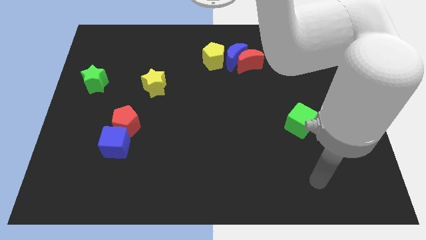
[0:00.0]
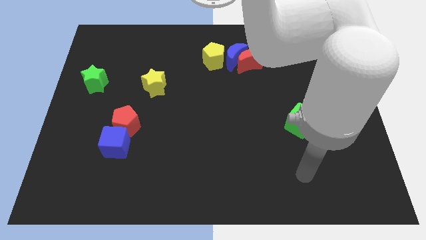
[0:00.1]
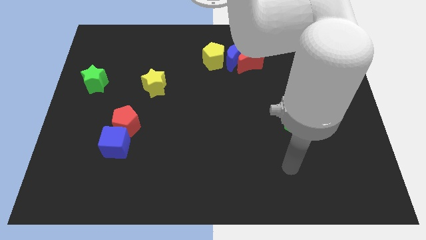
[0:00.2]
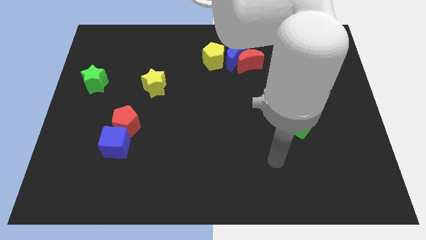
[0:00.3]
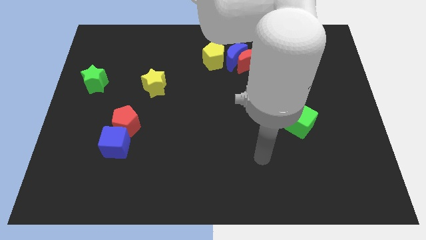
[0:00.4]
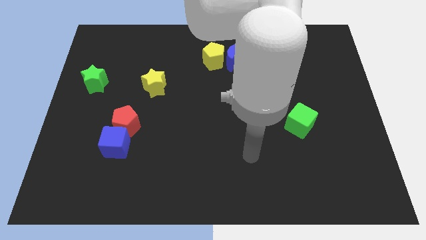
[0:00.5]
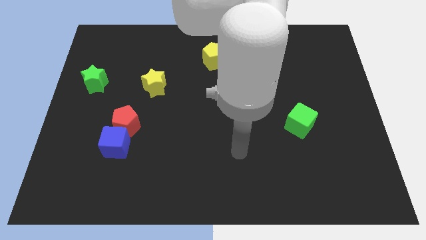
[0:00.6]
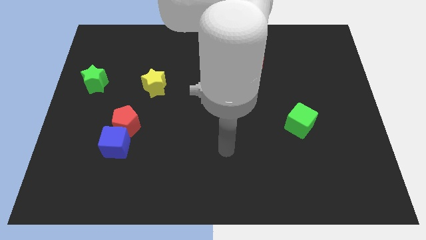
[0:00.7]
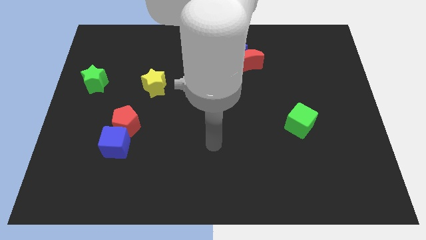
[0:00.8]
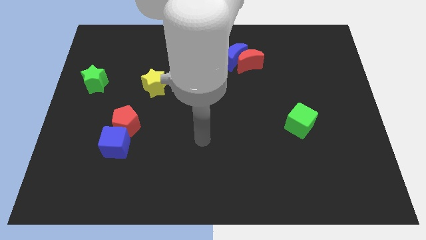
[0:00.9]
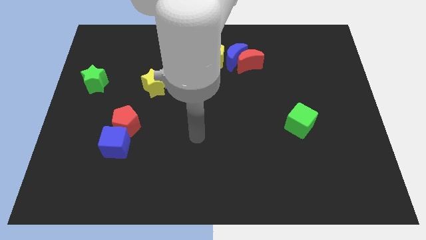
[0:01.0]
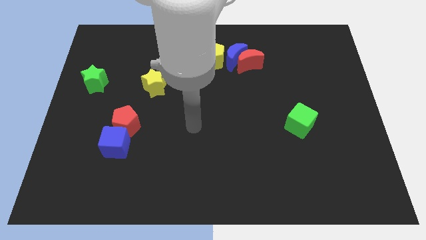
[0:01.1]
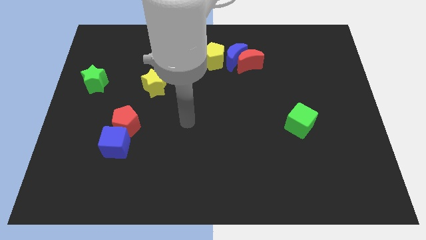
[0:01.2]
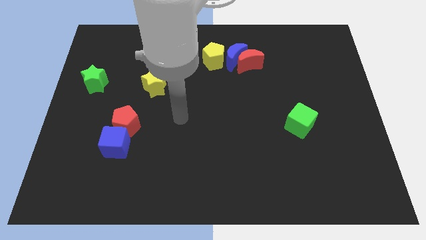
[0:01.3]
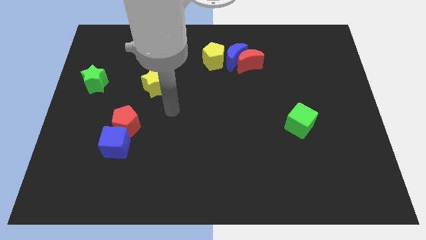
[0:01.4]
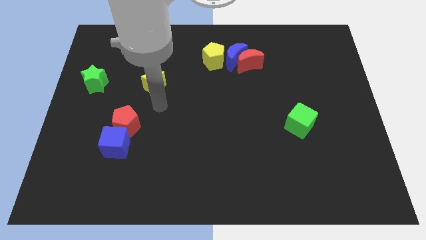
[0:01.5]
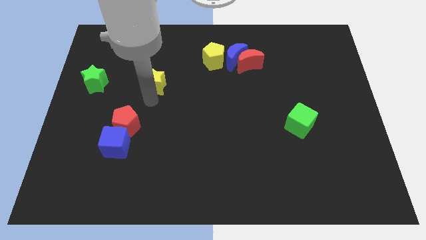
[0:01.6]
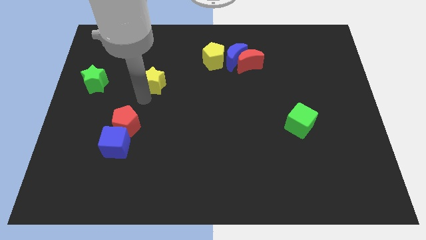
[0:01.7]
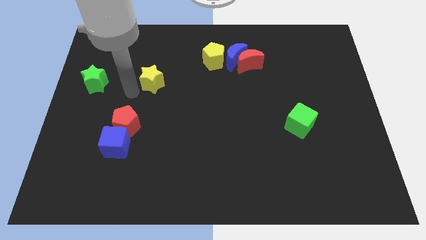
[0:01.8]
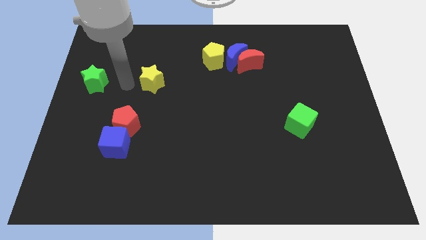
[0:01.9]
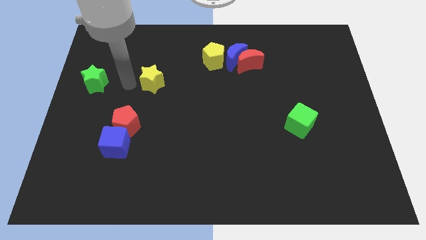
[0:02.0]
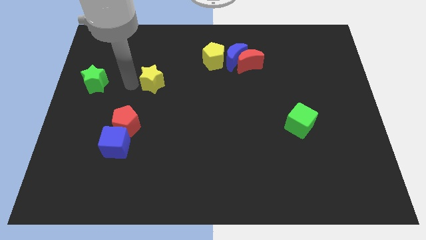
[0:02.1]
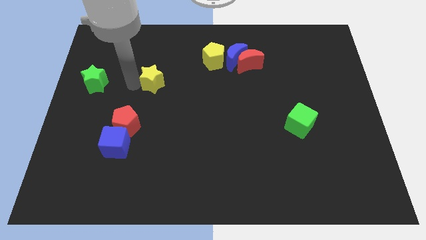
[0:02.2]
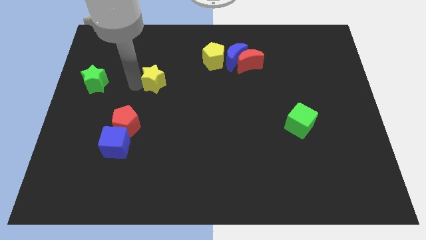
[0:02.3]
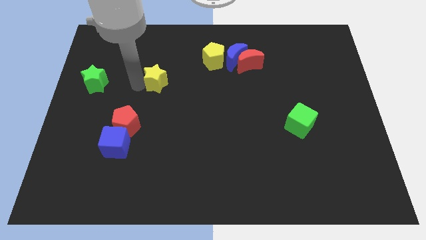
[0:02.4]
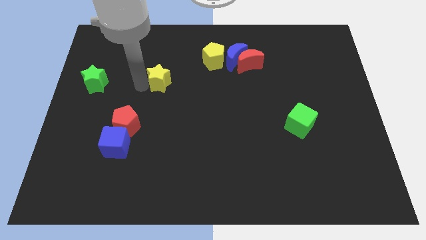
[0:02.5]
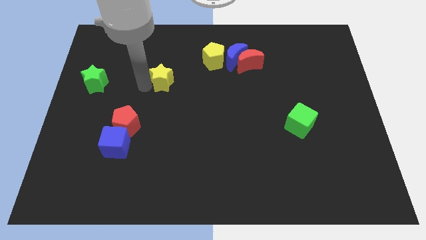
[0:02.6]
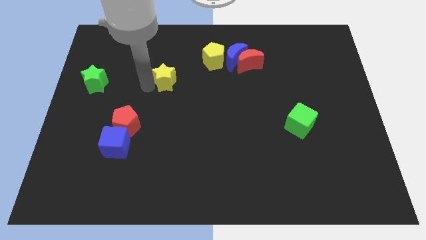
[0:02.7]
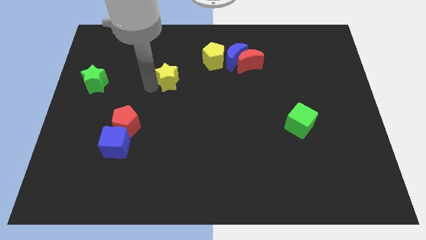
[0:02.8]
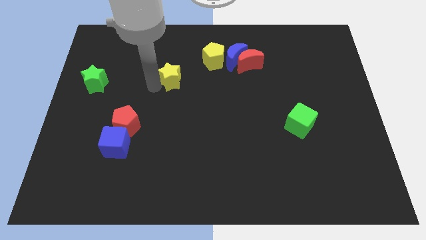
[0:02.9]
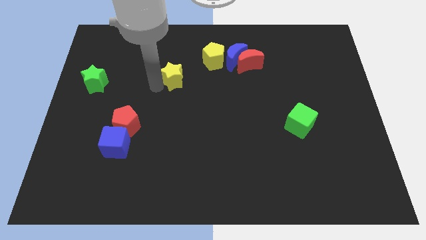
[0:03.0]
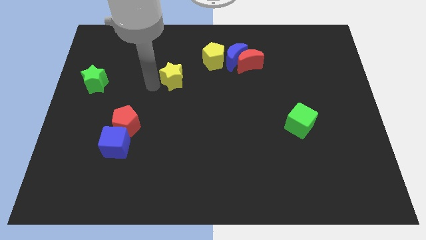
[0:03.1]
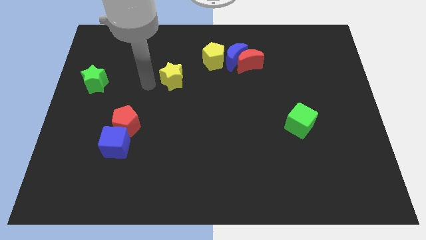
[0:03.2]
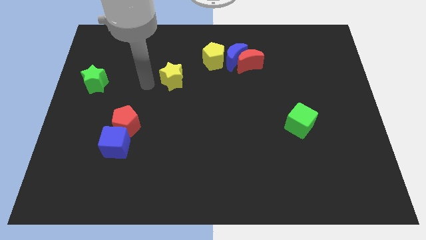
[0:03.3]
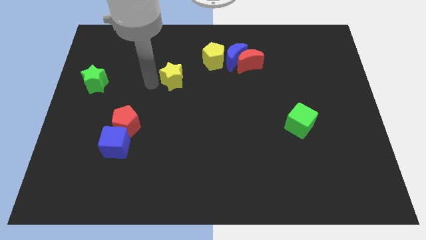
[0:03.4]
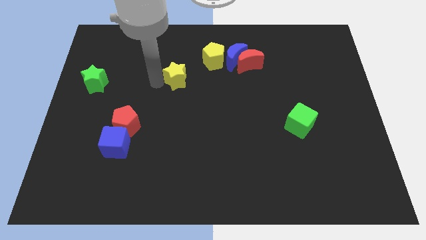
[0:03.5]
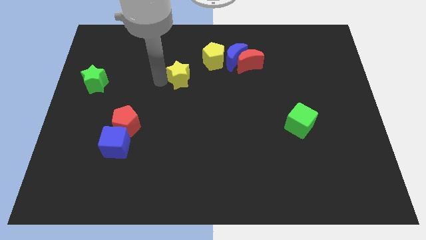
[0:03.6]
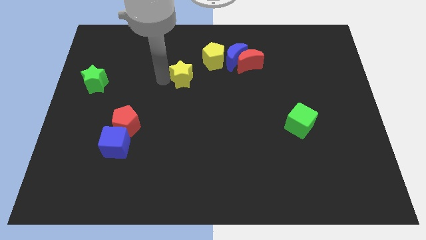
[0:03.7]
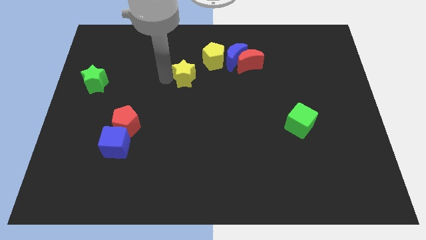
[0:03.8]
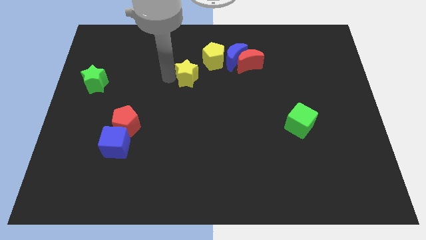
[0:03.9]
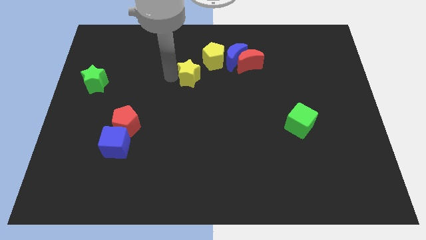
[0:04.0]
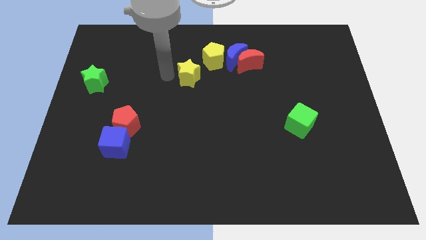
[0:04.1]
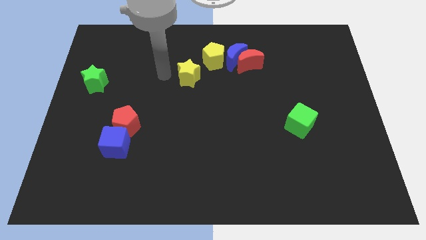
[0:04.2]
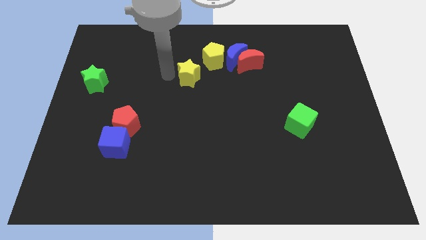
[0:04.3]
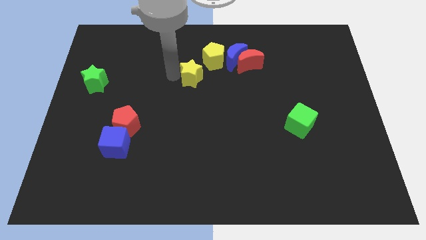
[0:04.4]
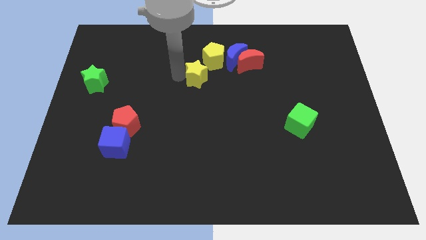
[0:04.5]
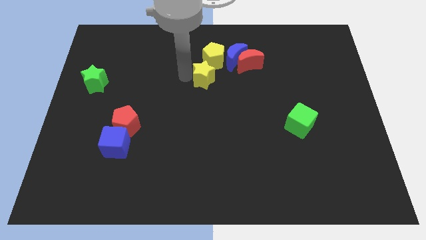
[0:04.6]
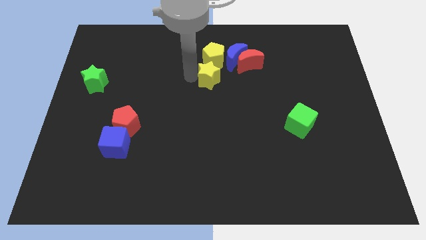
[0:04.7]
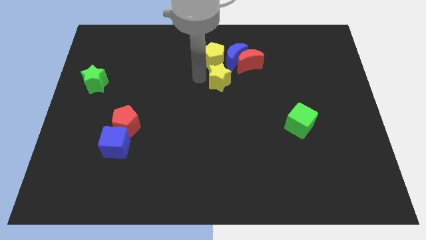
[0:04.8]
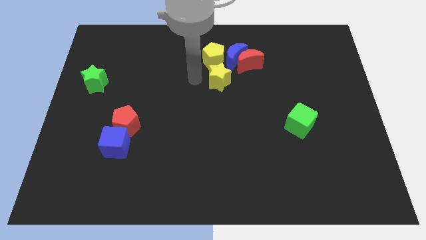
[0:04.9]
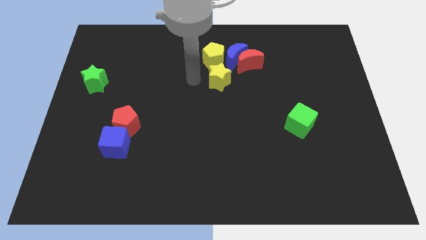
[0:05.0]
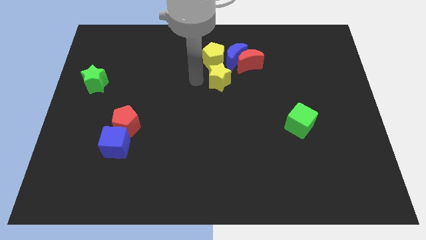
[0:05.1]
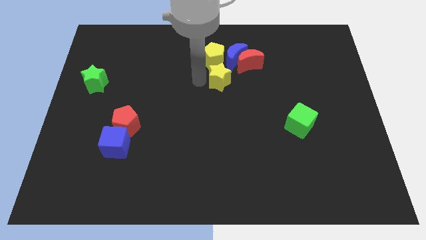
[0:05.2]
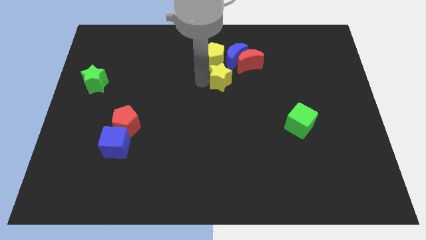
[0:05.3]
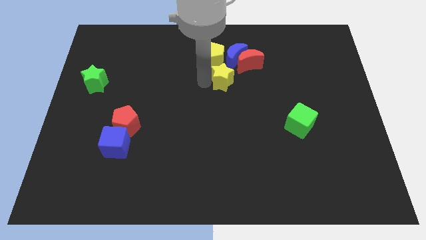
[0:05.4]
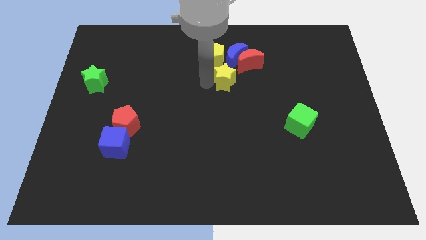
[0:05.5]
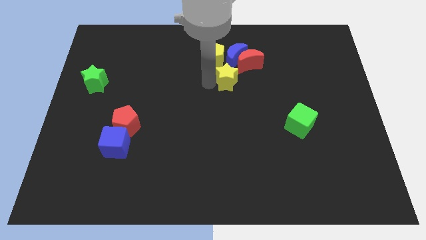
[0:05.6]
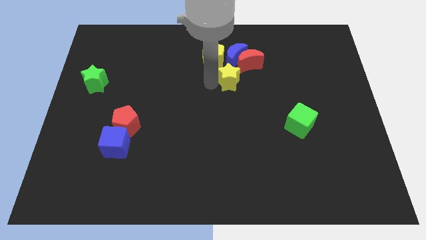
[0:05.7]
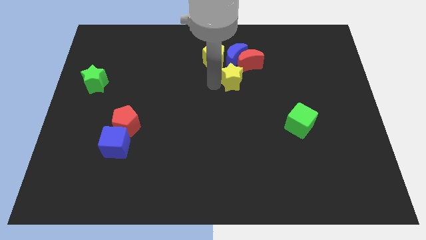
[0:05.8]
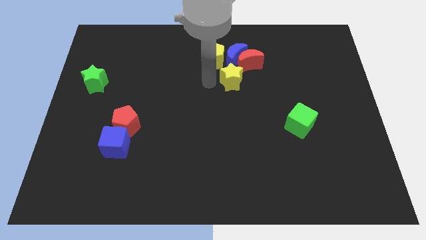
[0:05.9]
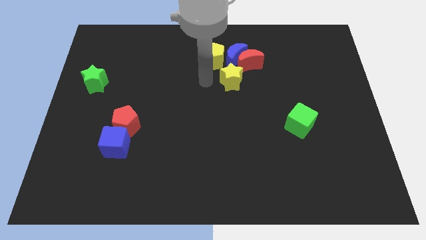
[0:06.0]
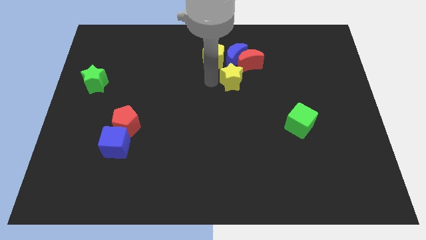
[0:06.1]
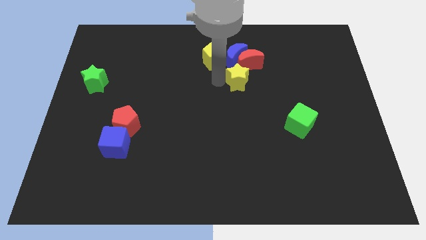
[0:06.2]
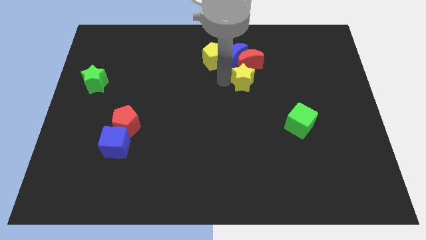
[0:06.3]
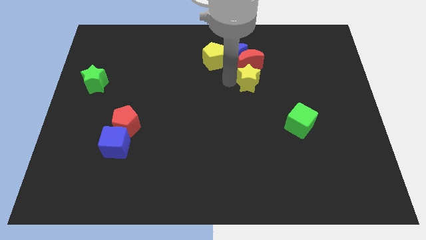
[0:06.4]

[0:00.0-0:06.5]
move the yellow star to the bottom right side of the red moon
